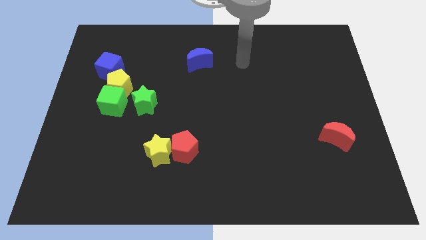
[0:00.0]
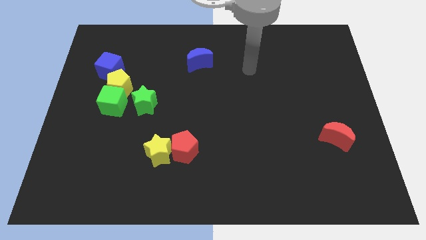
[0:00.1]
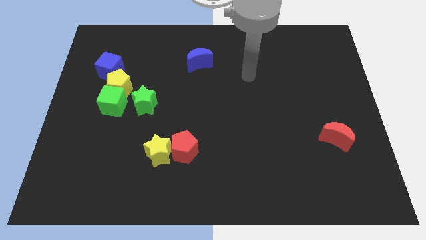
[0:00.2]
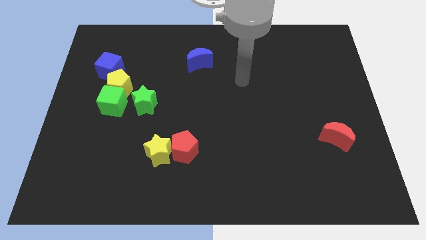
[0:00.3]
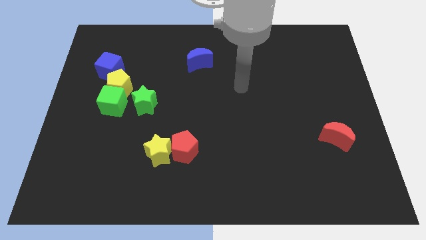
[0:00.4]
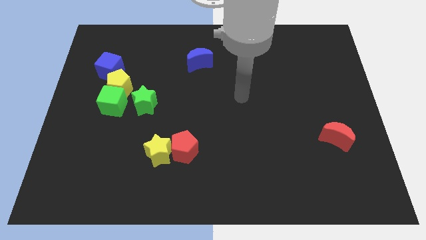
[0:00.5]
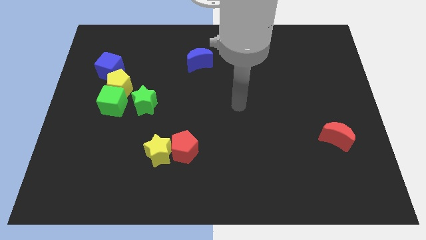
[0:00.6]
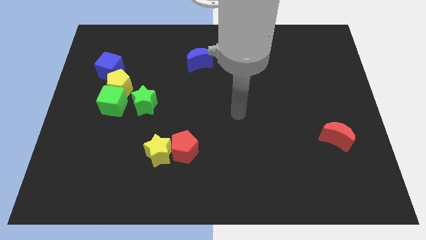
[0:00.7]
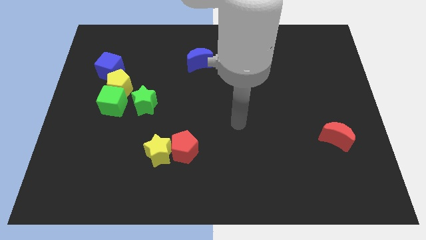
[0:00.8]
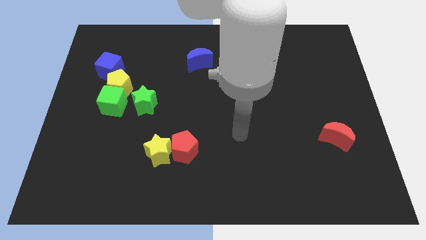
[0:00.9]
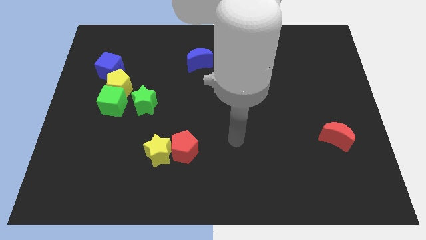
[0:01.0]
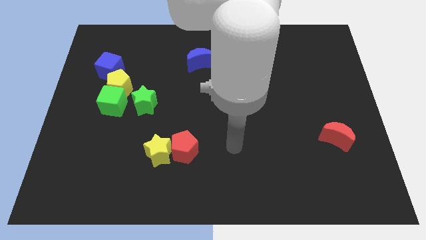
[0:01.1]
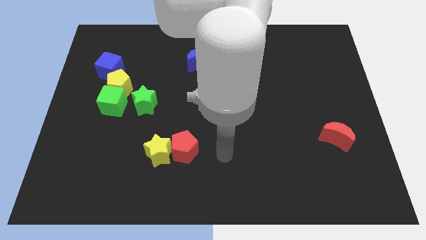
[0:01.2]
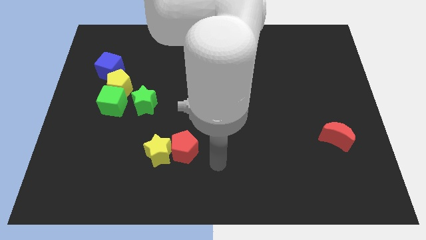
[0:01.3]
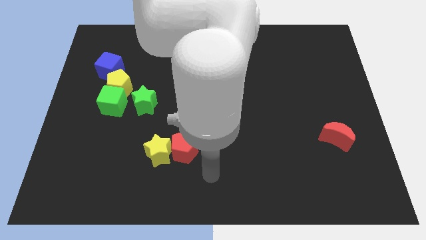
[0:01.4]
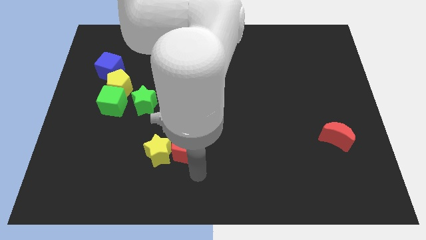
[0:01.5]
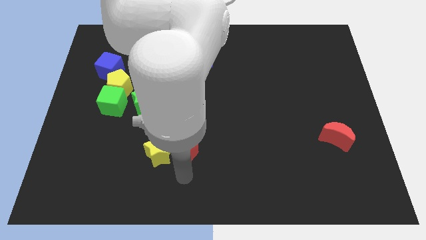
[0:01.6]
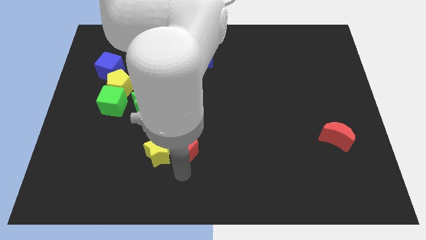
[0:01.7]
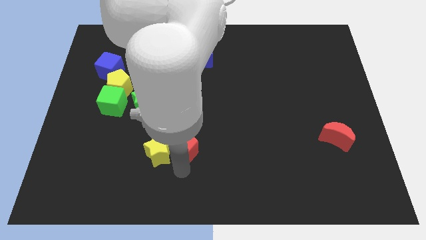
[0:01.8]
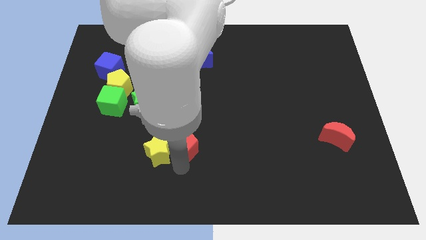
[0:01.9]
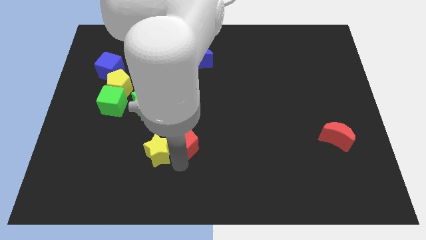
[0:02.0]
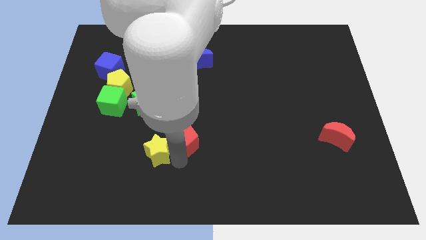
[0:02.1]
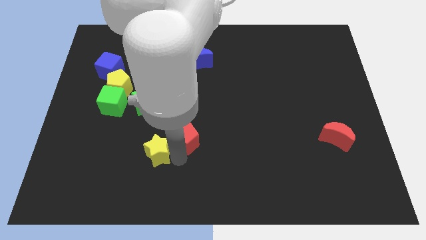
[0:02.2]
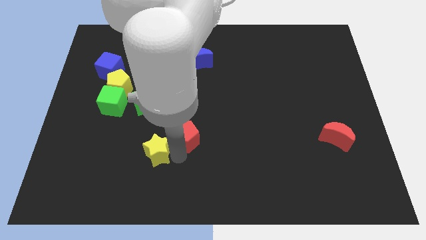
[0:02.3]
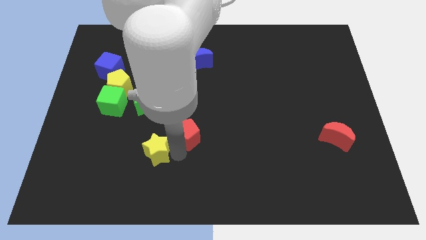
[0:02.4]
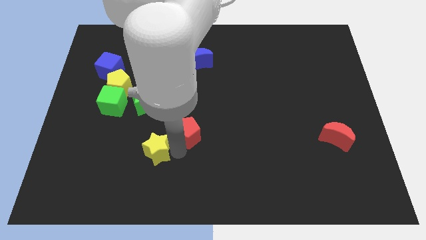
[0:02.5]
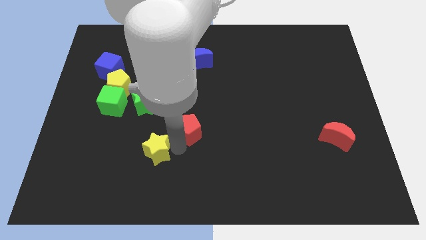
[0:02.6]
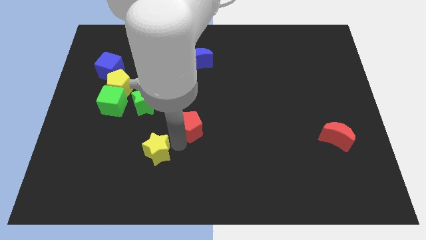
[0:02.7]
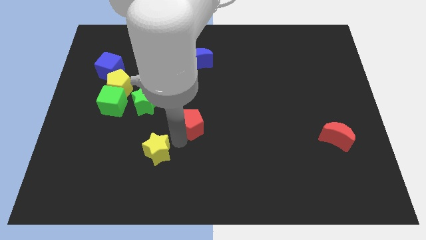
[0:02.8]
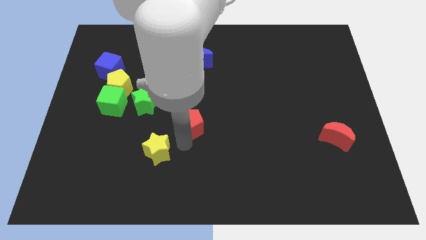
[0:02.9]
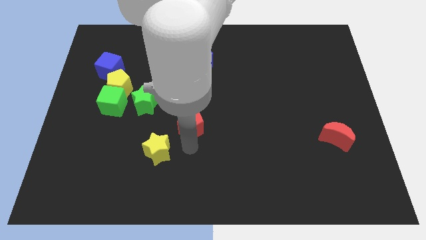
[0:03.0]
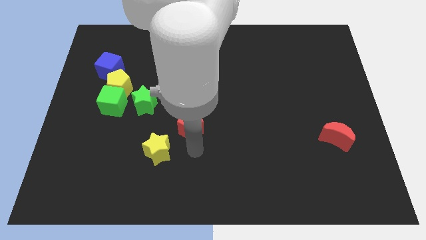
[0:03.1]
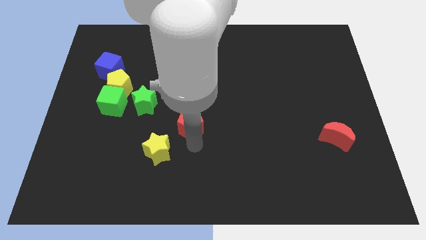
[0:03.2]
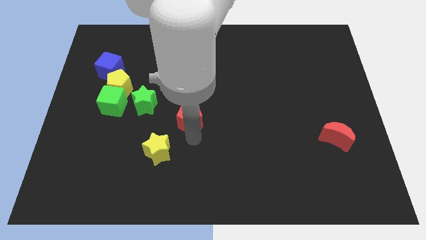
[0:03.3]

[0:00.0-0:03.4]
slightly slide the red pentagon up

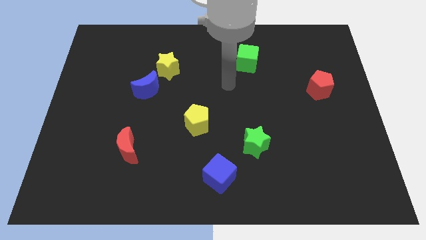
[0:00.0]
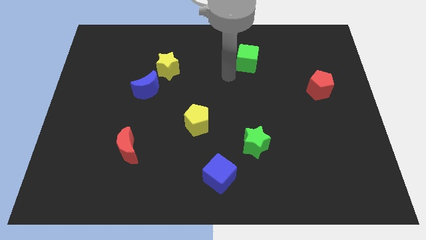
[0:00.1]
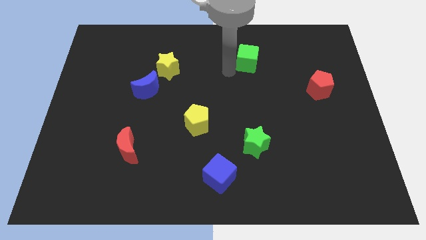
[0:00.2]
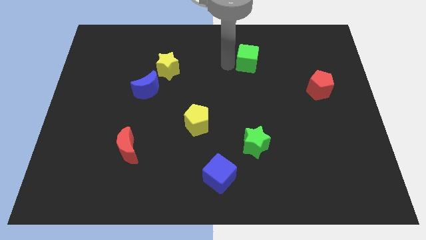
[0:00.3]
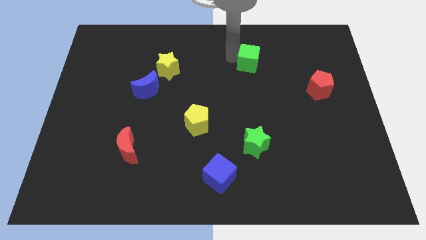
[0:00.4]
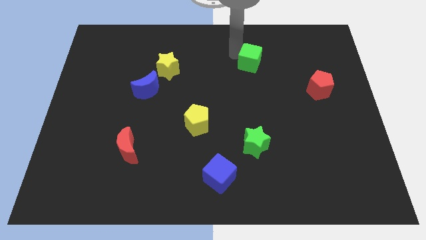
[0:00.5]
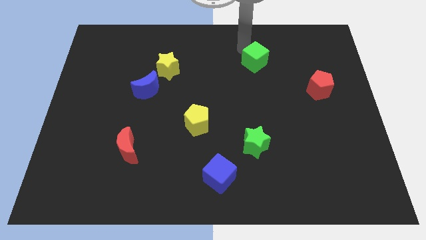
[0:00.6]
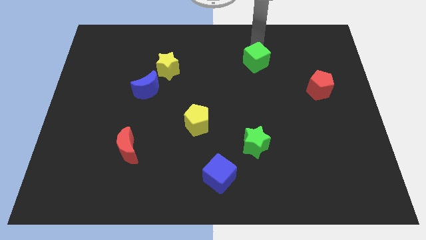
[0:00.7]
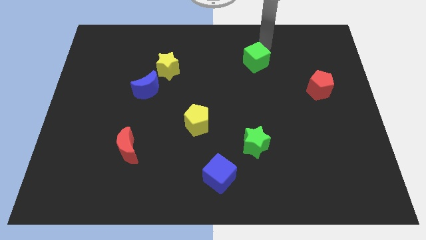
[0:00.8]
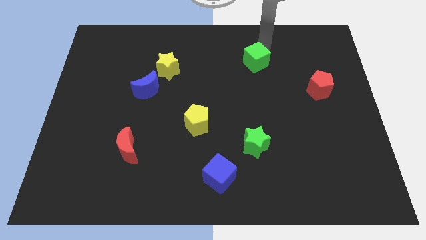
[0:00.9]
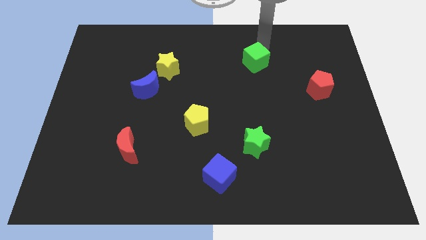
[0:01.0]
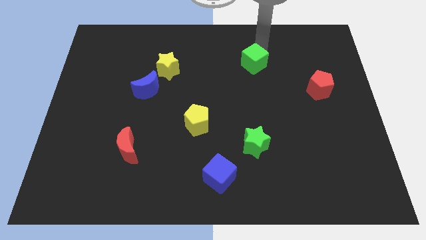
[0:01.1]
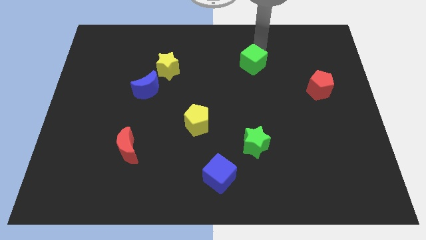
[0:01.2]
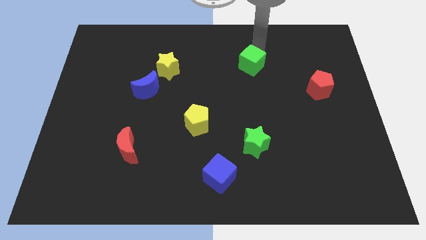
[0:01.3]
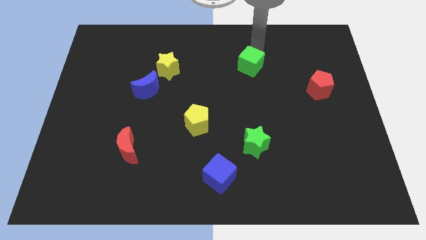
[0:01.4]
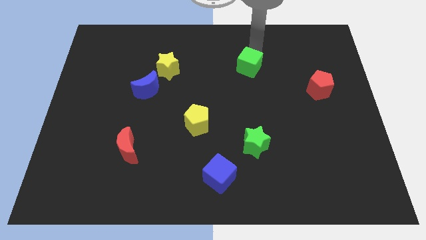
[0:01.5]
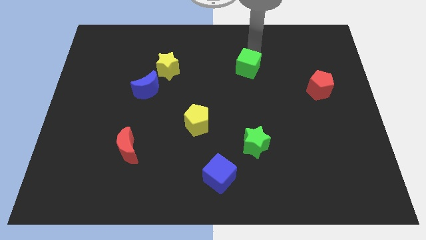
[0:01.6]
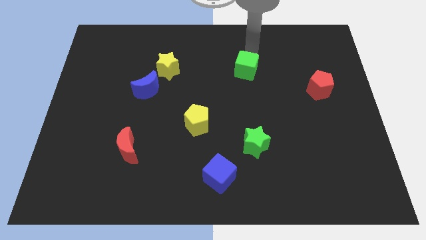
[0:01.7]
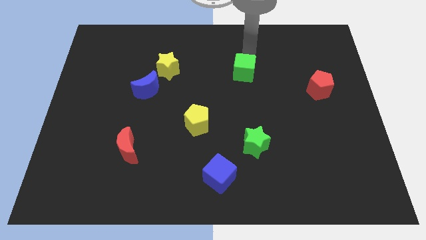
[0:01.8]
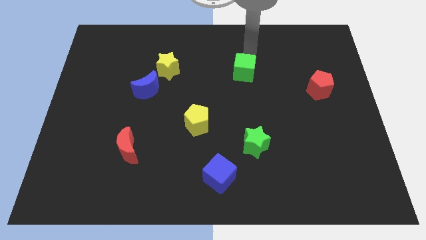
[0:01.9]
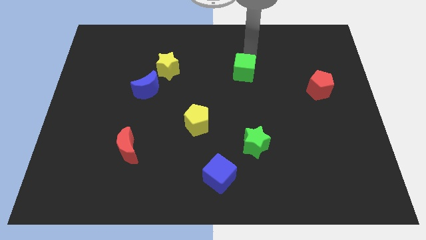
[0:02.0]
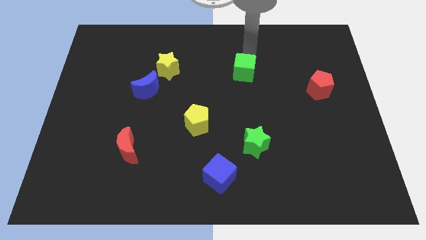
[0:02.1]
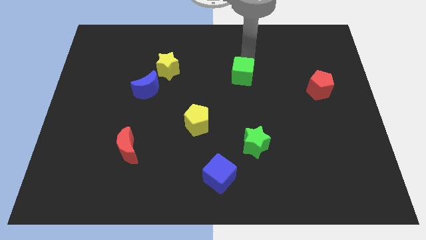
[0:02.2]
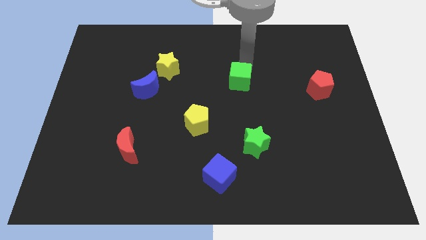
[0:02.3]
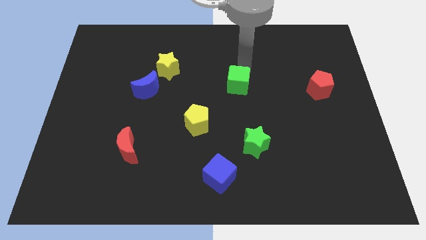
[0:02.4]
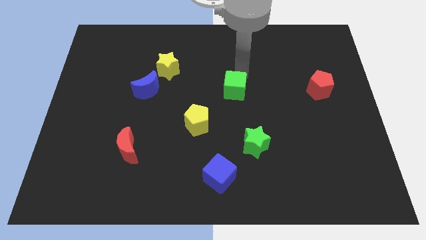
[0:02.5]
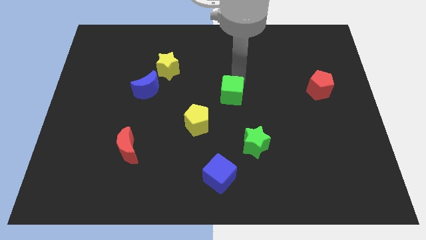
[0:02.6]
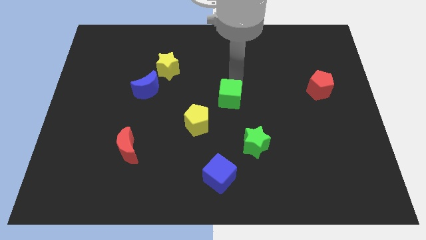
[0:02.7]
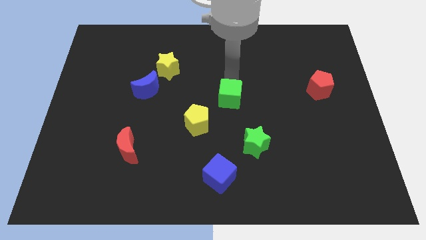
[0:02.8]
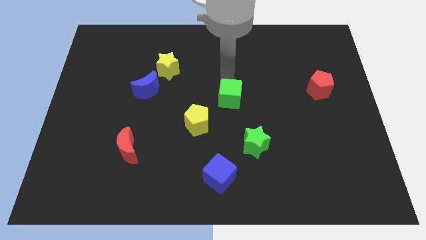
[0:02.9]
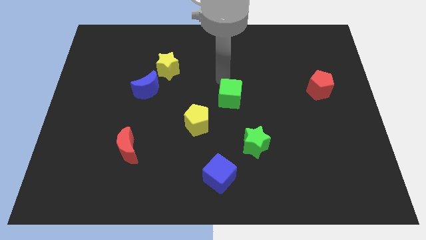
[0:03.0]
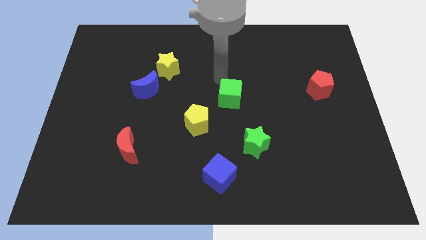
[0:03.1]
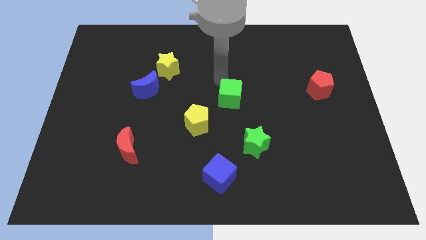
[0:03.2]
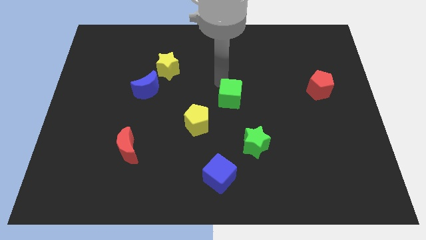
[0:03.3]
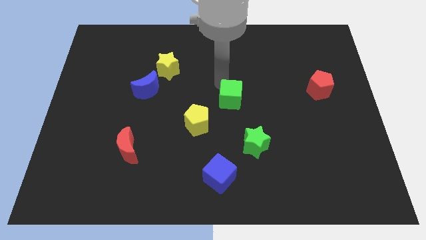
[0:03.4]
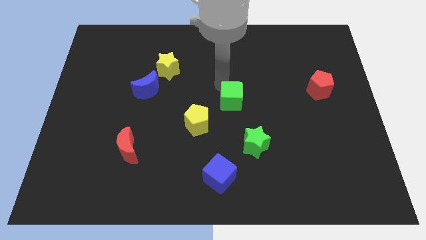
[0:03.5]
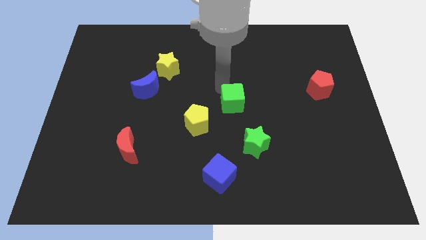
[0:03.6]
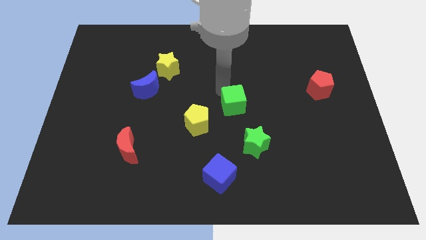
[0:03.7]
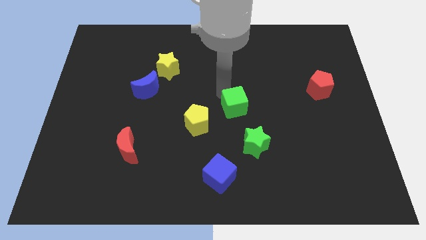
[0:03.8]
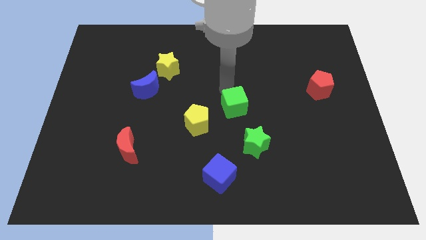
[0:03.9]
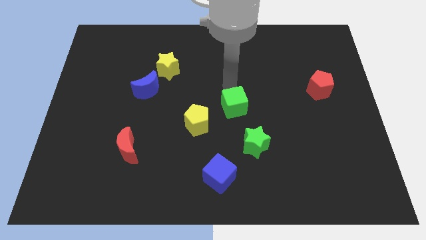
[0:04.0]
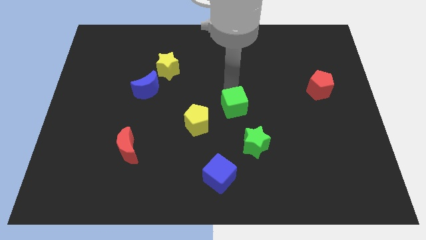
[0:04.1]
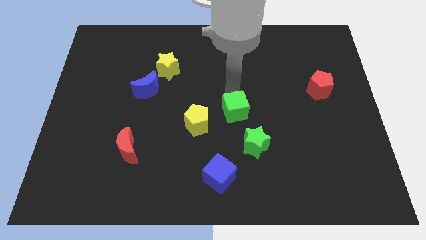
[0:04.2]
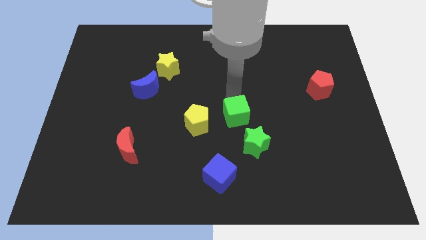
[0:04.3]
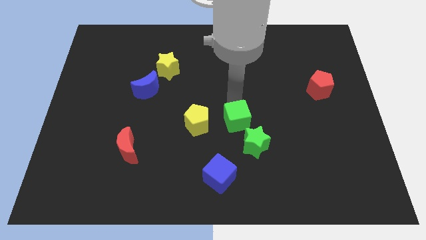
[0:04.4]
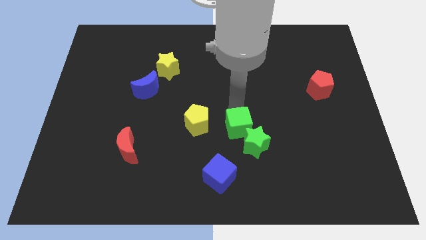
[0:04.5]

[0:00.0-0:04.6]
move the green cube down

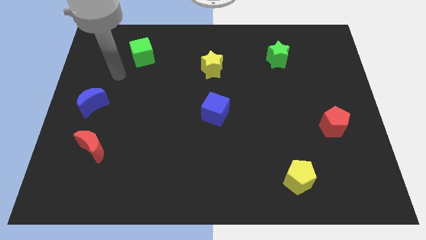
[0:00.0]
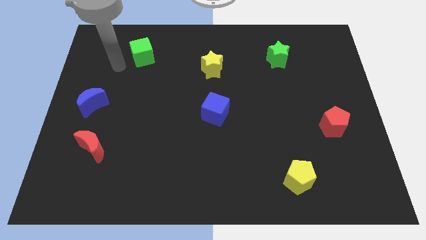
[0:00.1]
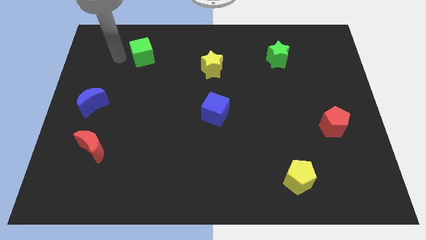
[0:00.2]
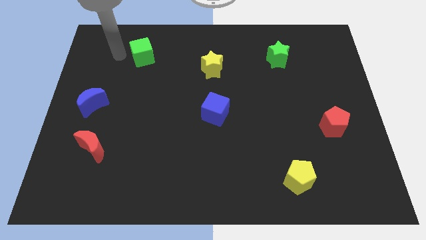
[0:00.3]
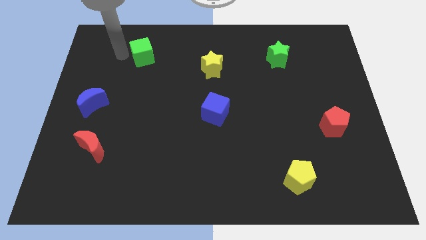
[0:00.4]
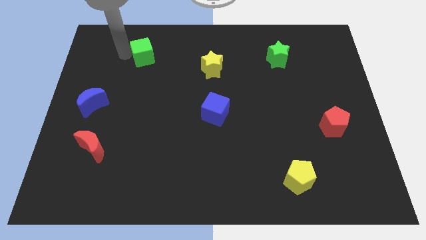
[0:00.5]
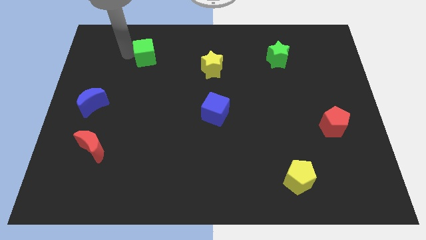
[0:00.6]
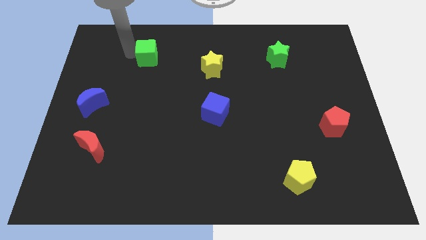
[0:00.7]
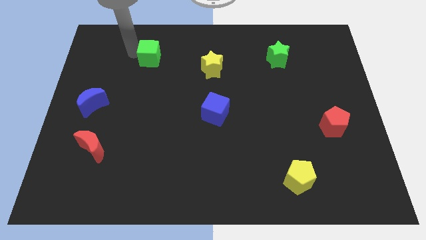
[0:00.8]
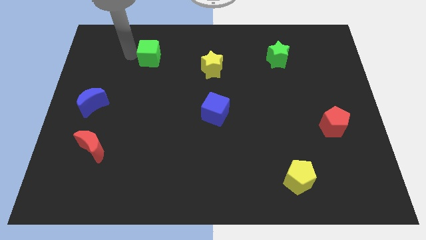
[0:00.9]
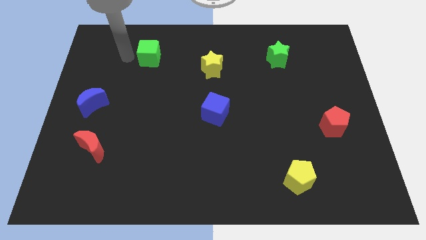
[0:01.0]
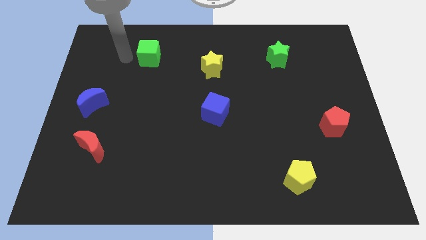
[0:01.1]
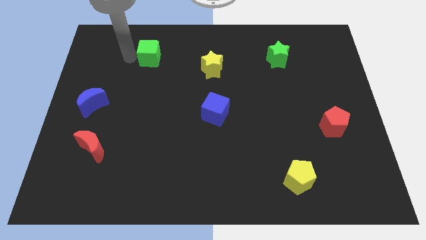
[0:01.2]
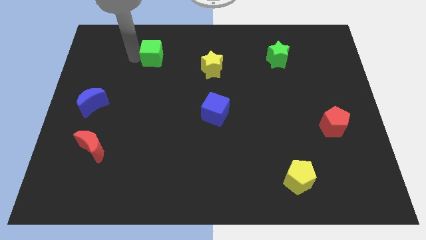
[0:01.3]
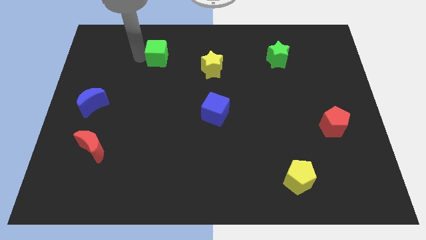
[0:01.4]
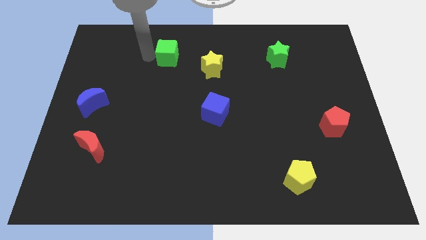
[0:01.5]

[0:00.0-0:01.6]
slightly slide the green cube to the right
